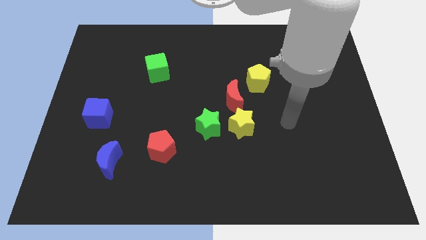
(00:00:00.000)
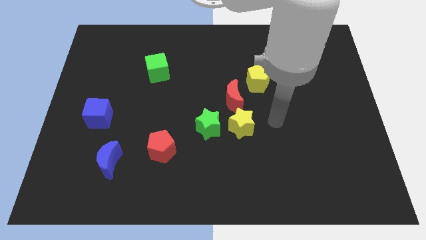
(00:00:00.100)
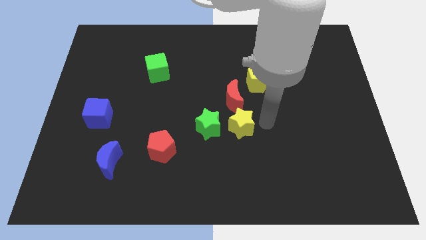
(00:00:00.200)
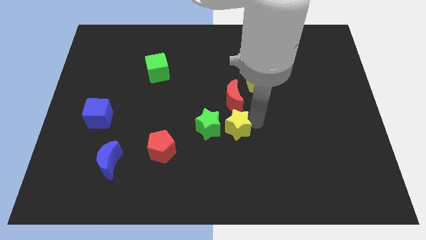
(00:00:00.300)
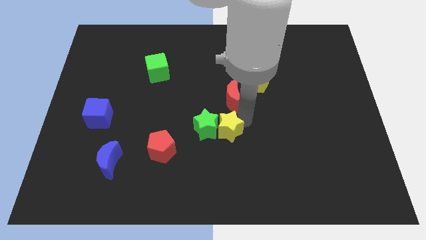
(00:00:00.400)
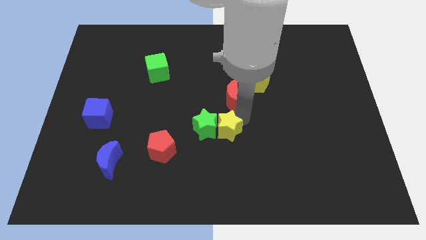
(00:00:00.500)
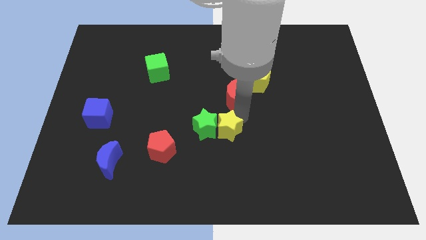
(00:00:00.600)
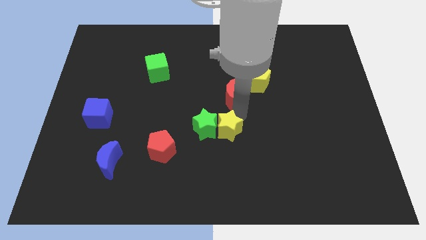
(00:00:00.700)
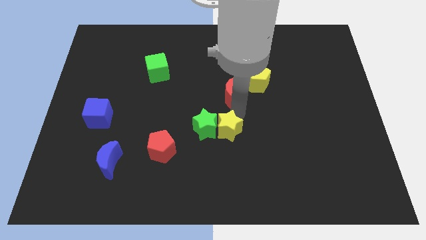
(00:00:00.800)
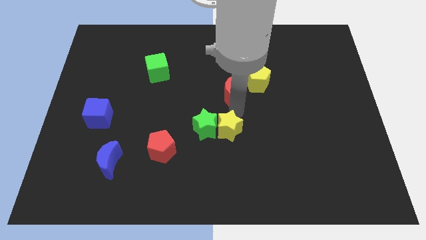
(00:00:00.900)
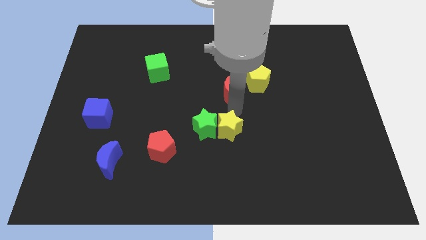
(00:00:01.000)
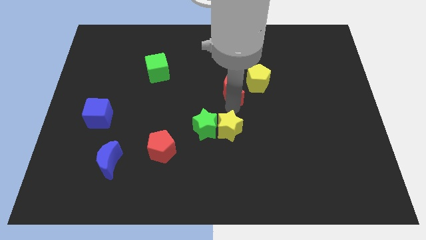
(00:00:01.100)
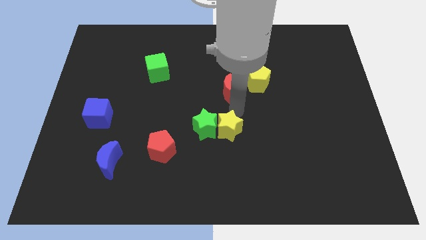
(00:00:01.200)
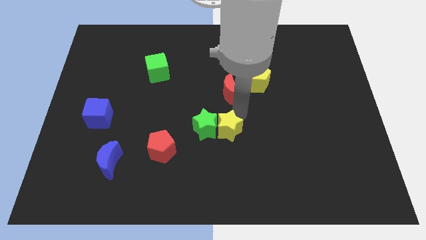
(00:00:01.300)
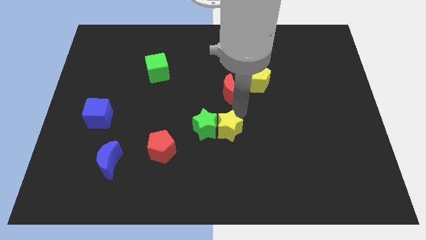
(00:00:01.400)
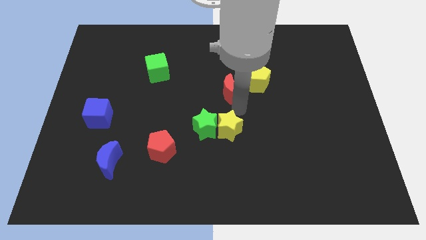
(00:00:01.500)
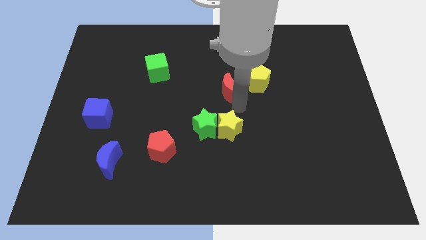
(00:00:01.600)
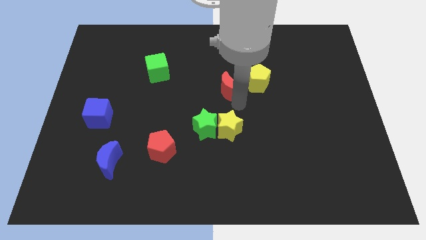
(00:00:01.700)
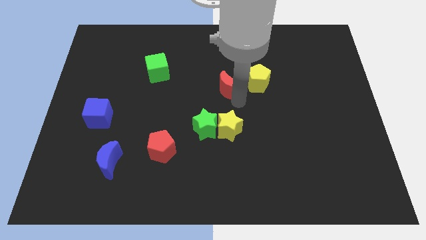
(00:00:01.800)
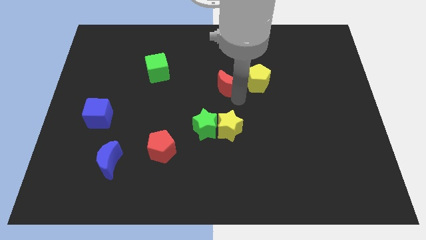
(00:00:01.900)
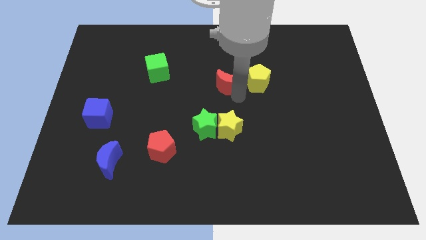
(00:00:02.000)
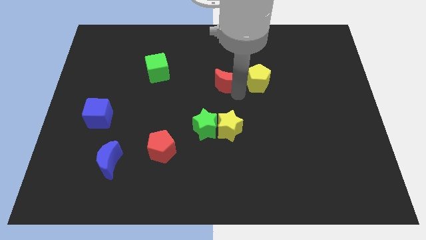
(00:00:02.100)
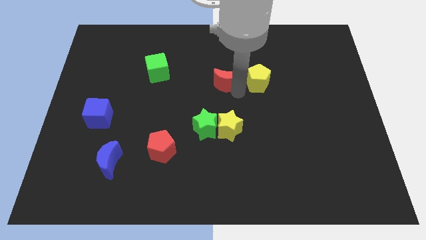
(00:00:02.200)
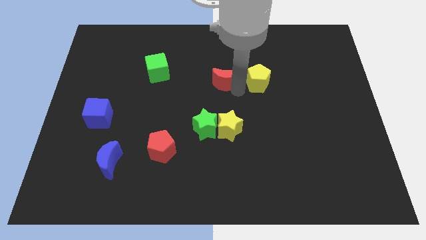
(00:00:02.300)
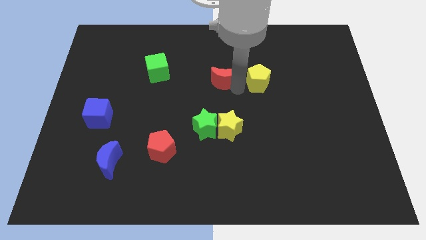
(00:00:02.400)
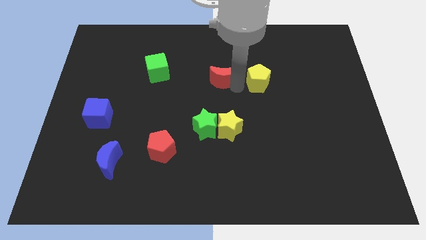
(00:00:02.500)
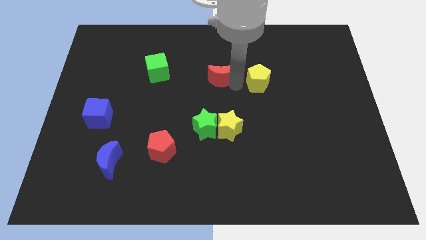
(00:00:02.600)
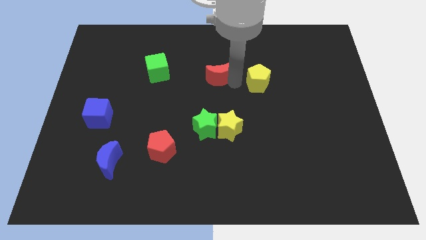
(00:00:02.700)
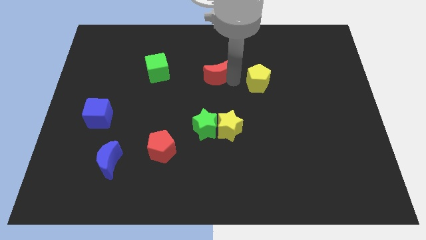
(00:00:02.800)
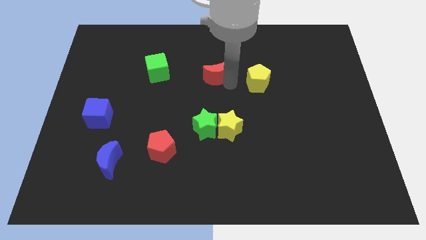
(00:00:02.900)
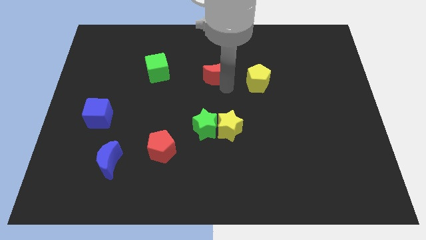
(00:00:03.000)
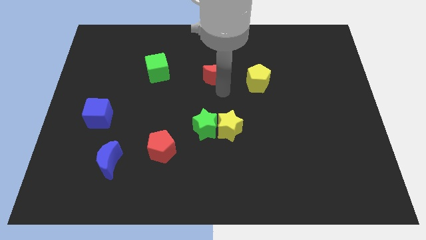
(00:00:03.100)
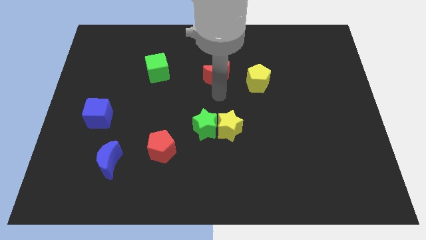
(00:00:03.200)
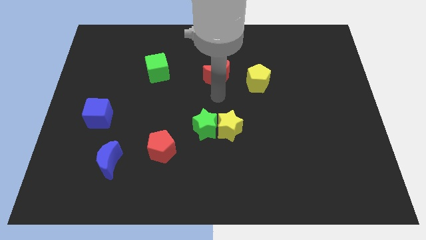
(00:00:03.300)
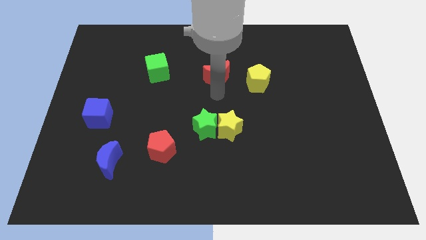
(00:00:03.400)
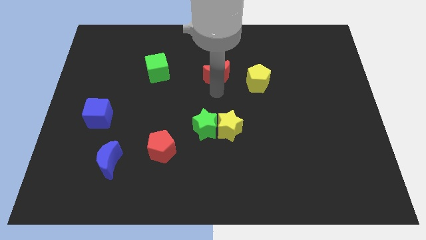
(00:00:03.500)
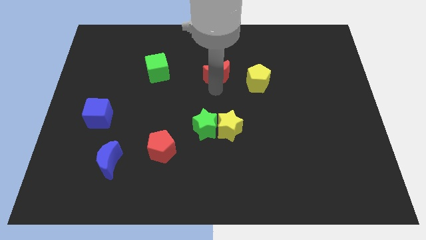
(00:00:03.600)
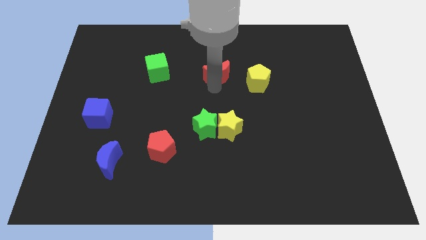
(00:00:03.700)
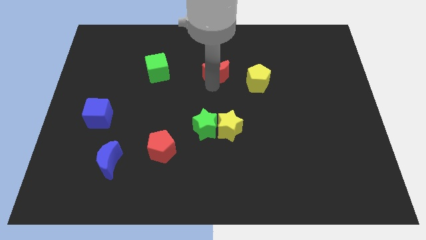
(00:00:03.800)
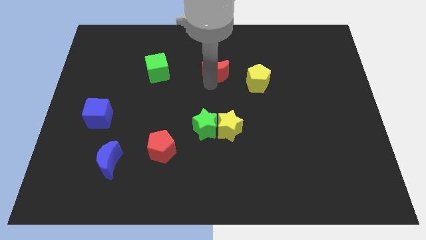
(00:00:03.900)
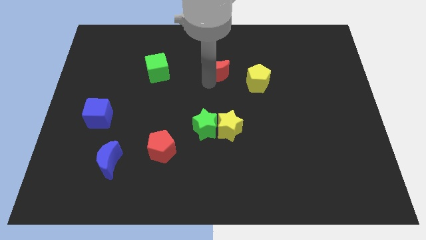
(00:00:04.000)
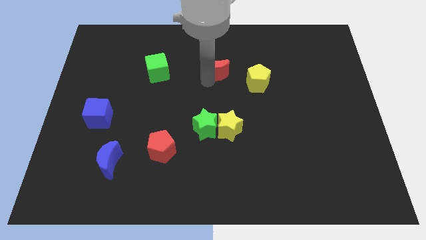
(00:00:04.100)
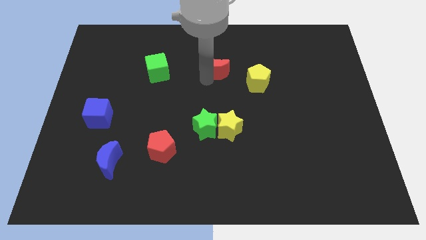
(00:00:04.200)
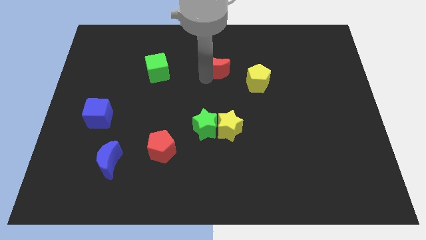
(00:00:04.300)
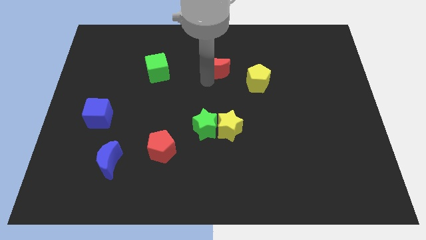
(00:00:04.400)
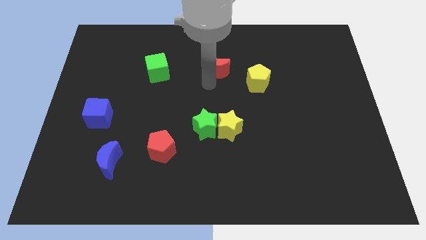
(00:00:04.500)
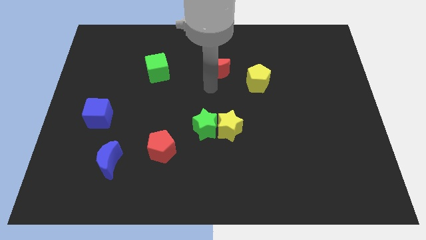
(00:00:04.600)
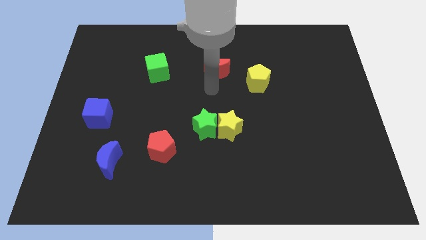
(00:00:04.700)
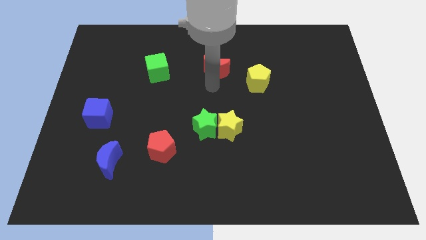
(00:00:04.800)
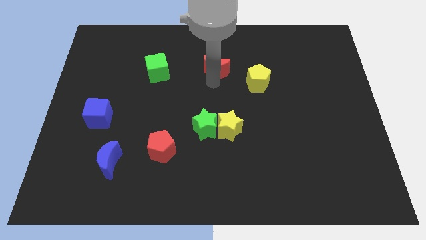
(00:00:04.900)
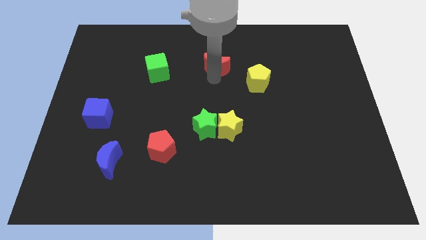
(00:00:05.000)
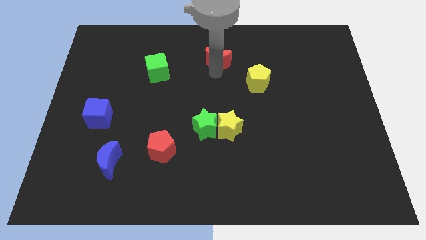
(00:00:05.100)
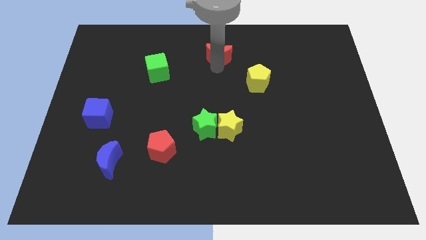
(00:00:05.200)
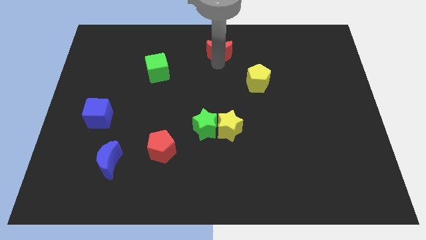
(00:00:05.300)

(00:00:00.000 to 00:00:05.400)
put the red moon to the towards your base

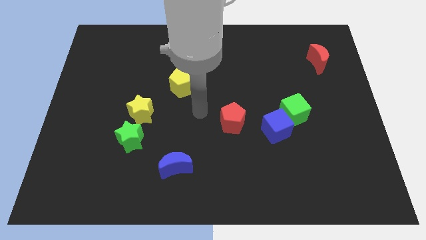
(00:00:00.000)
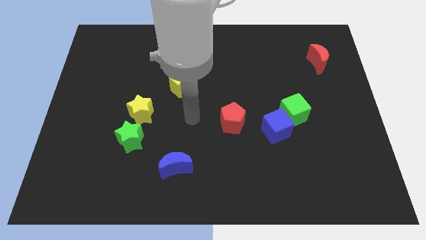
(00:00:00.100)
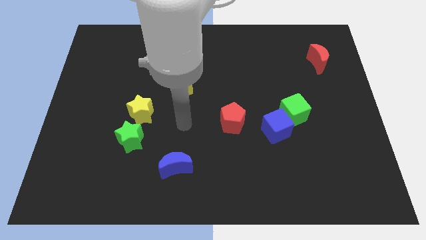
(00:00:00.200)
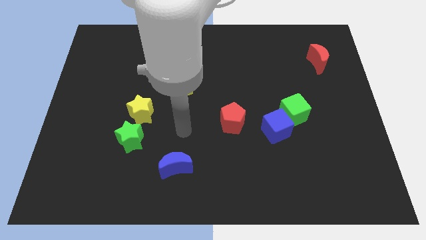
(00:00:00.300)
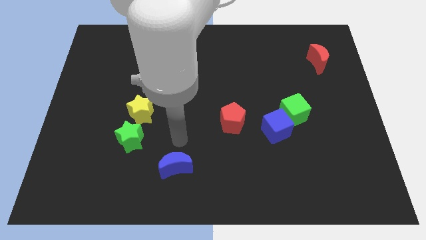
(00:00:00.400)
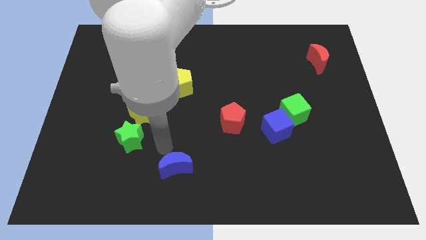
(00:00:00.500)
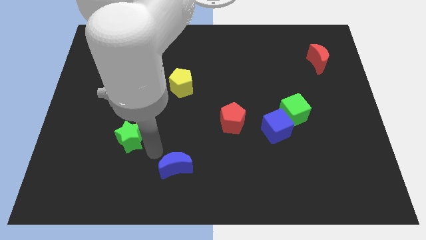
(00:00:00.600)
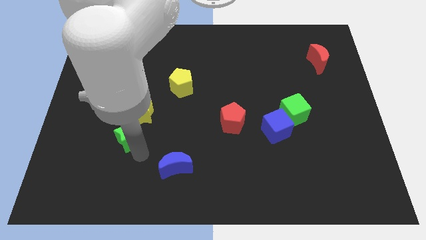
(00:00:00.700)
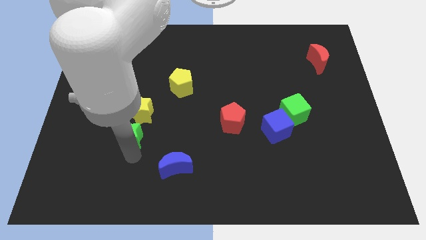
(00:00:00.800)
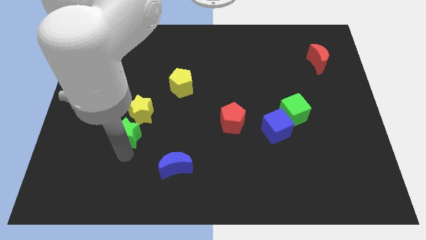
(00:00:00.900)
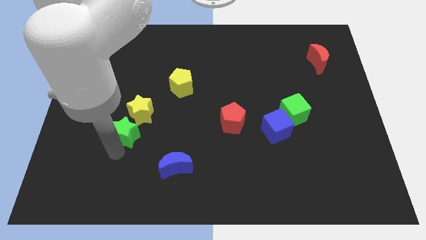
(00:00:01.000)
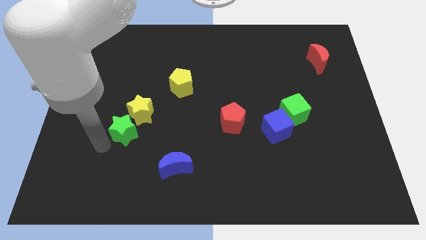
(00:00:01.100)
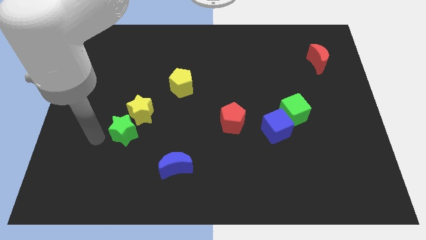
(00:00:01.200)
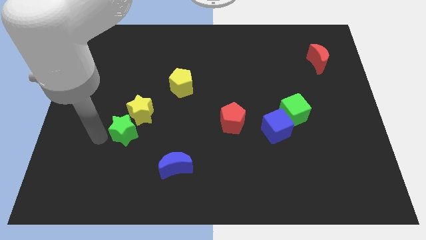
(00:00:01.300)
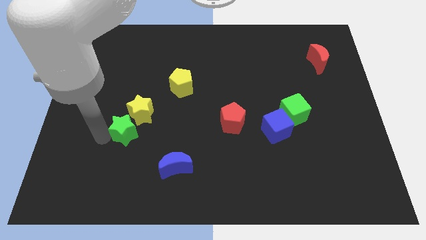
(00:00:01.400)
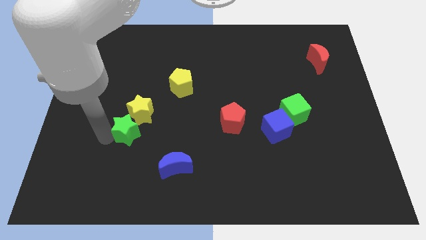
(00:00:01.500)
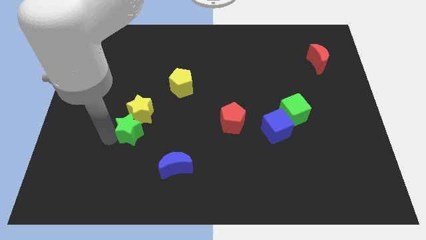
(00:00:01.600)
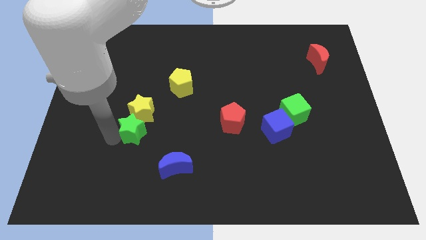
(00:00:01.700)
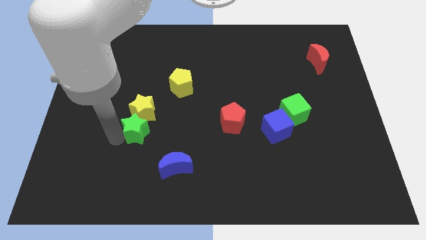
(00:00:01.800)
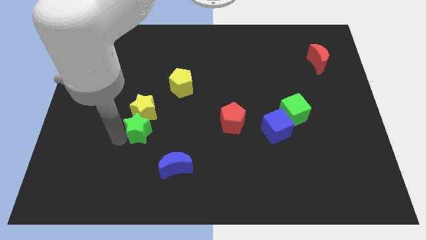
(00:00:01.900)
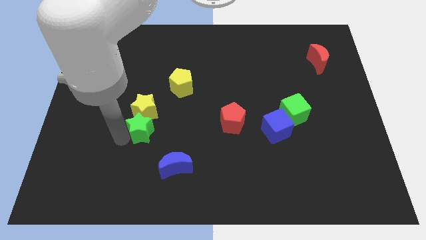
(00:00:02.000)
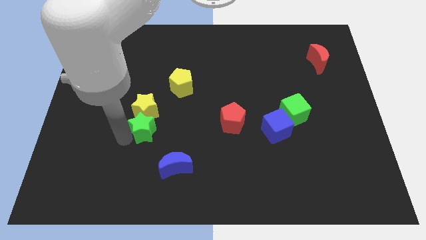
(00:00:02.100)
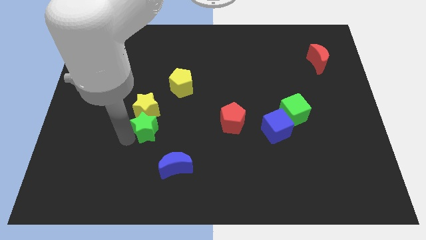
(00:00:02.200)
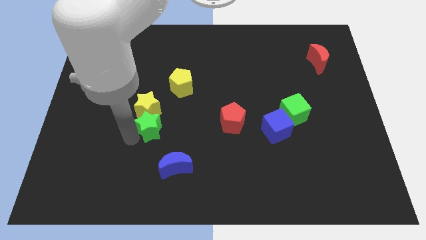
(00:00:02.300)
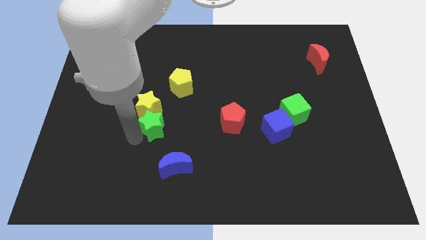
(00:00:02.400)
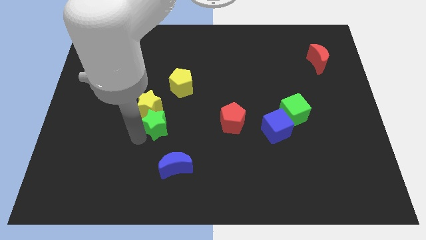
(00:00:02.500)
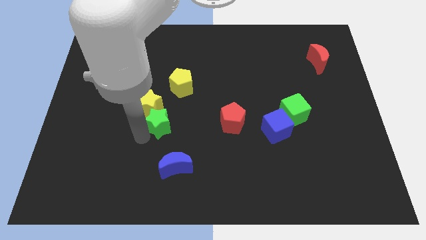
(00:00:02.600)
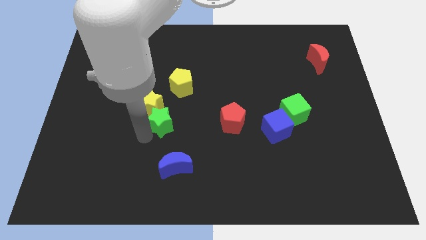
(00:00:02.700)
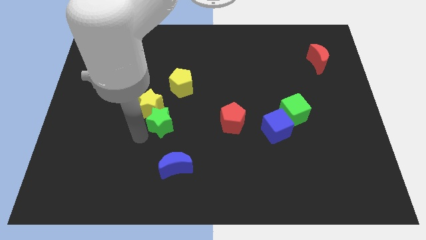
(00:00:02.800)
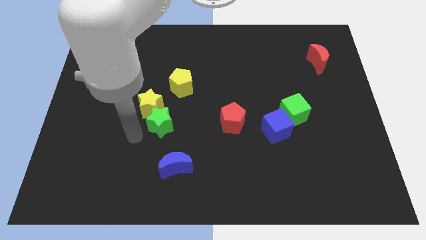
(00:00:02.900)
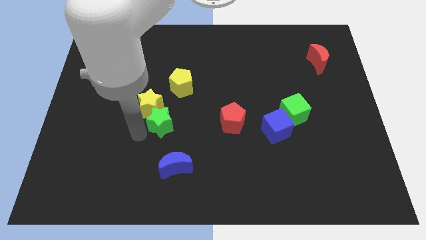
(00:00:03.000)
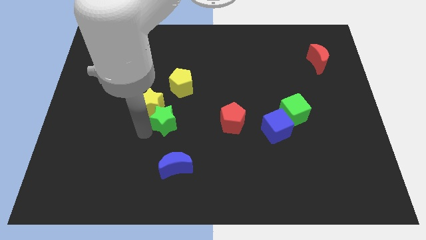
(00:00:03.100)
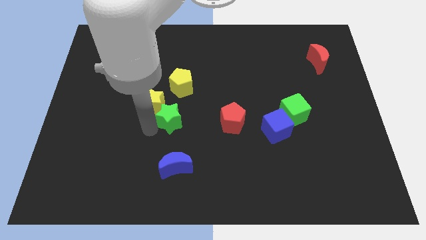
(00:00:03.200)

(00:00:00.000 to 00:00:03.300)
move the green star to the center of the board
